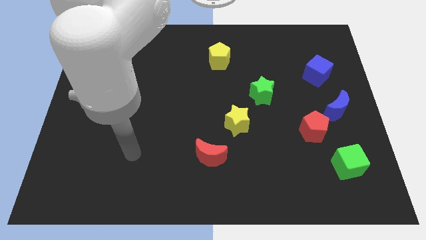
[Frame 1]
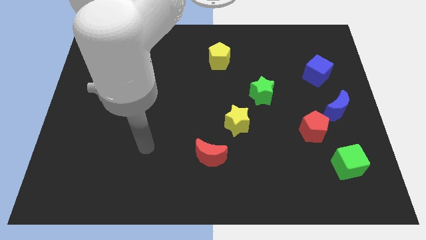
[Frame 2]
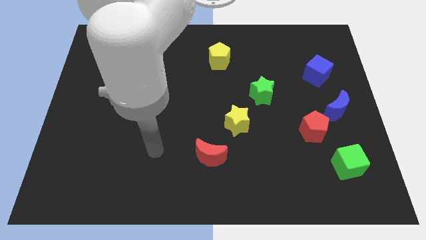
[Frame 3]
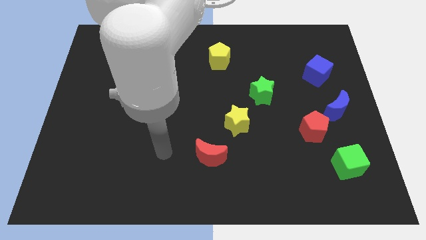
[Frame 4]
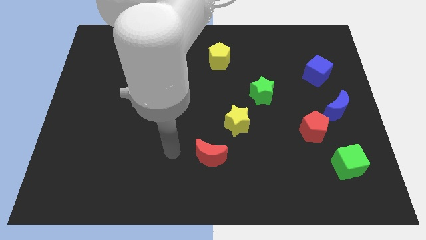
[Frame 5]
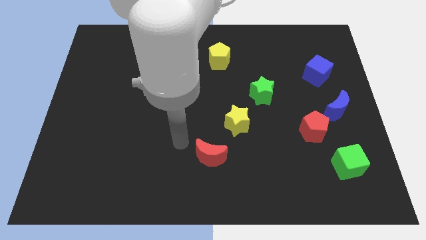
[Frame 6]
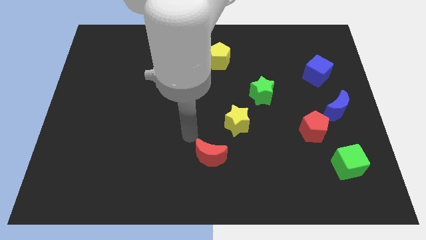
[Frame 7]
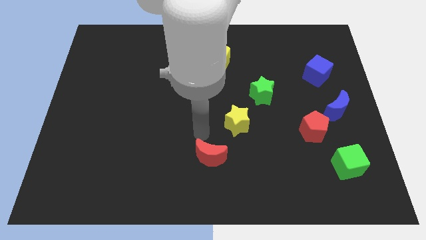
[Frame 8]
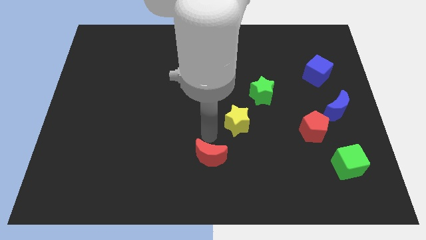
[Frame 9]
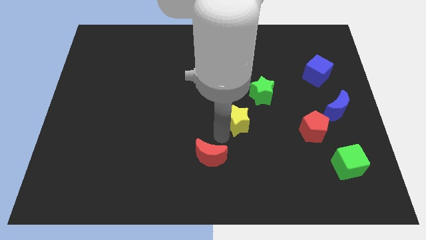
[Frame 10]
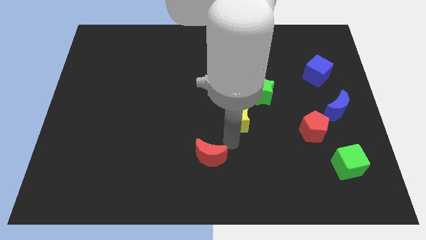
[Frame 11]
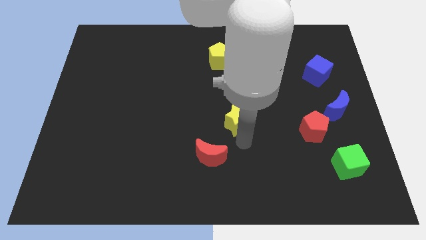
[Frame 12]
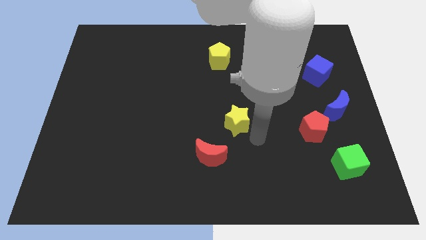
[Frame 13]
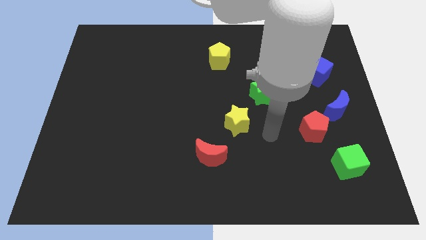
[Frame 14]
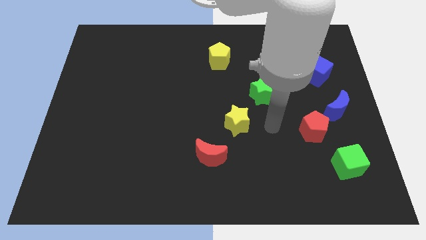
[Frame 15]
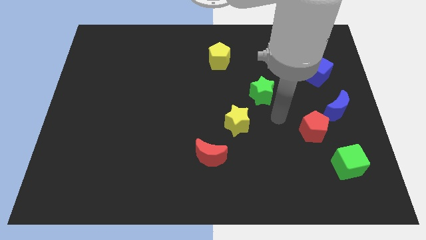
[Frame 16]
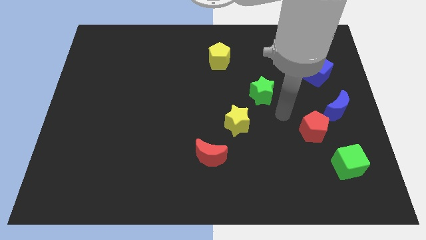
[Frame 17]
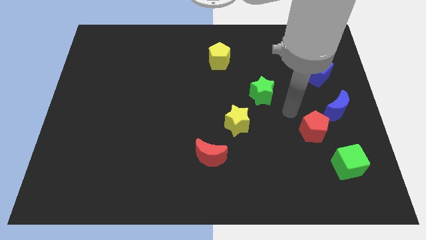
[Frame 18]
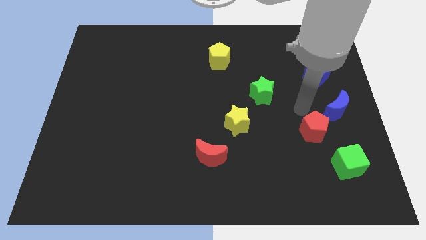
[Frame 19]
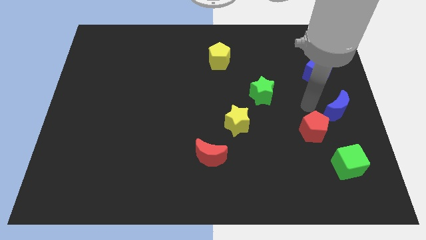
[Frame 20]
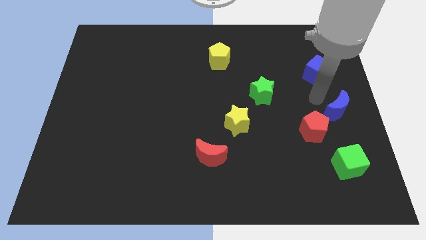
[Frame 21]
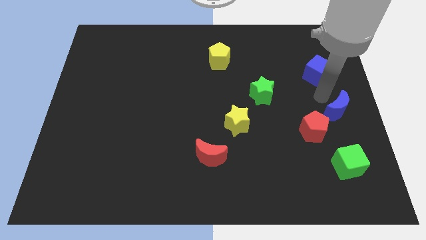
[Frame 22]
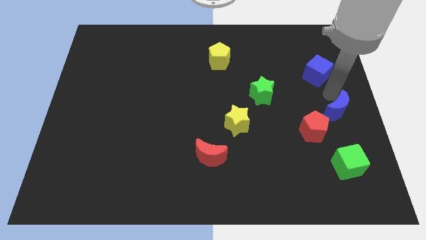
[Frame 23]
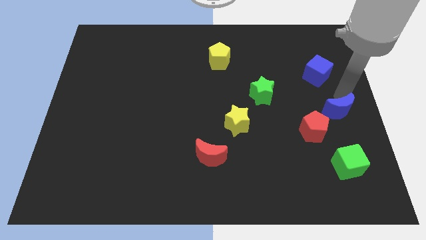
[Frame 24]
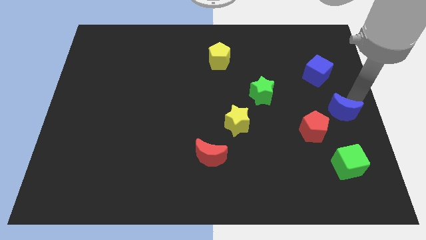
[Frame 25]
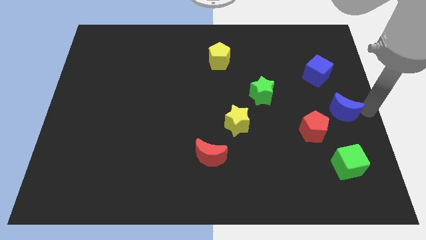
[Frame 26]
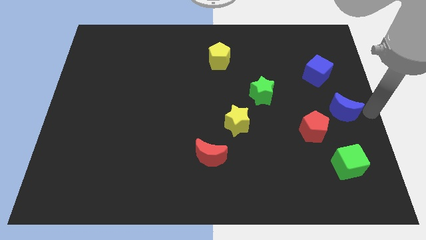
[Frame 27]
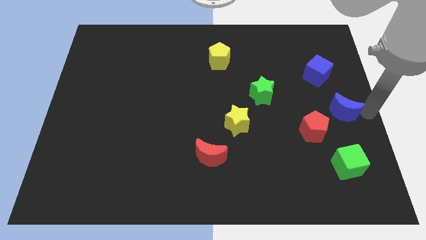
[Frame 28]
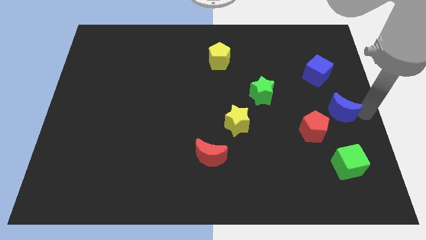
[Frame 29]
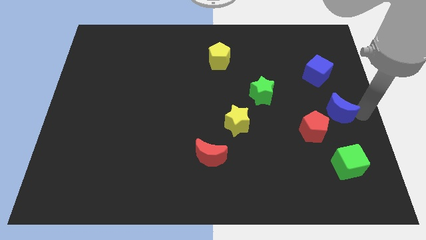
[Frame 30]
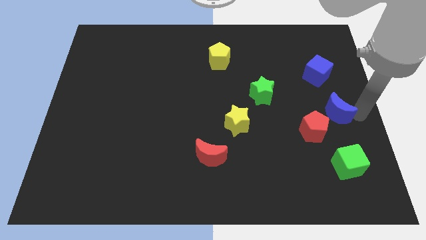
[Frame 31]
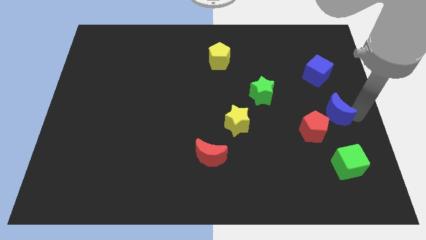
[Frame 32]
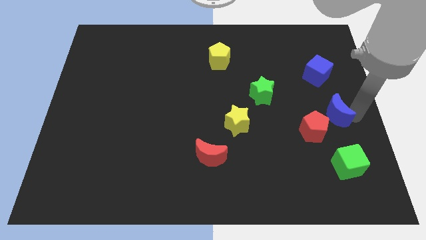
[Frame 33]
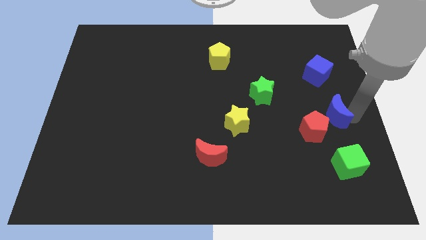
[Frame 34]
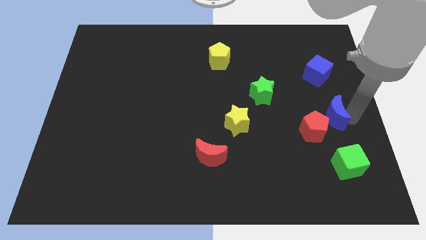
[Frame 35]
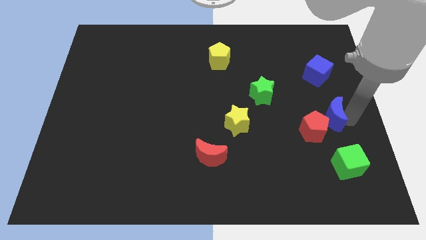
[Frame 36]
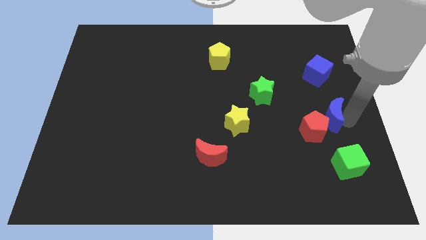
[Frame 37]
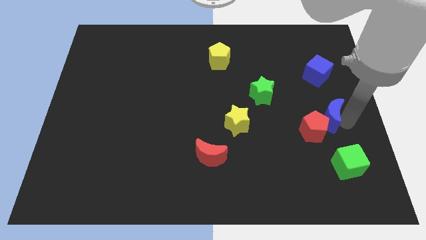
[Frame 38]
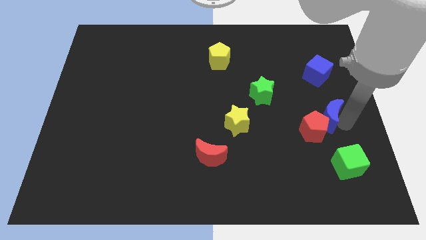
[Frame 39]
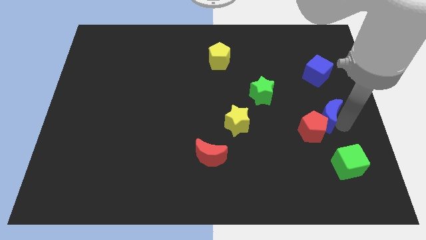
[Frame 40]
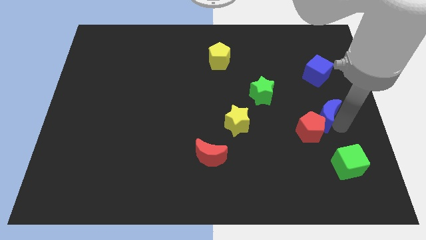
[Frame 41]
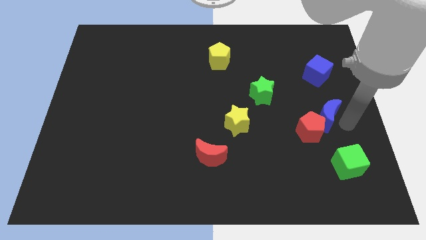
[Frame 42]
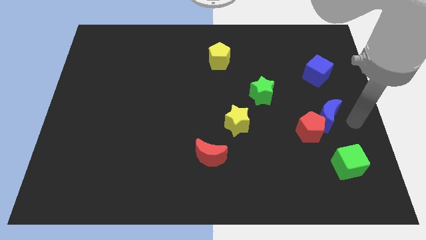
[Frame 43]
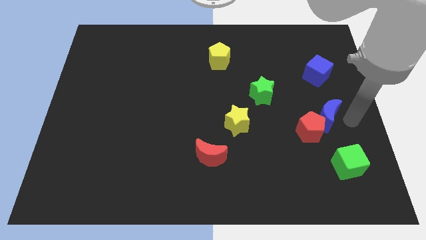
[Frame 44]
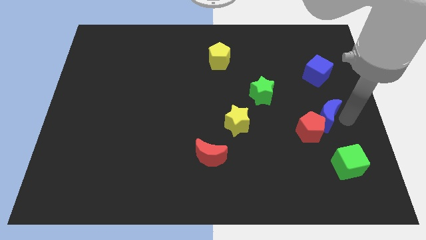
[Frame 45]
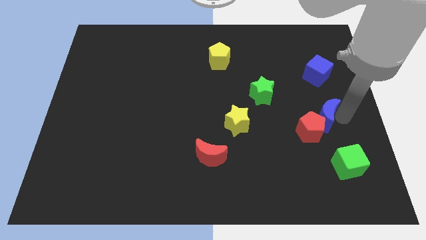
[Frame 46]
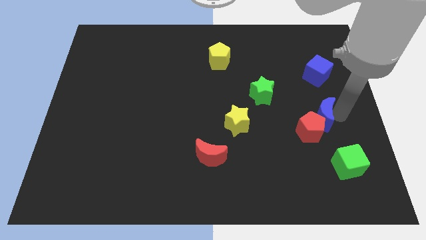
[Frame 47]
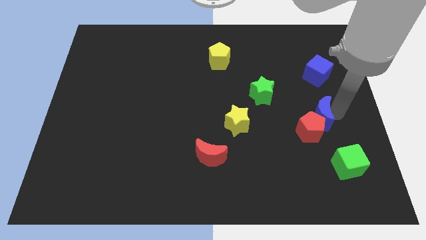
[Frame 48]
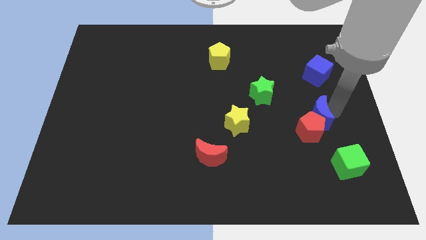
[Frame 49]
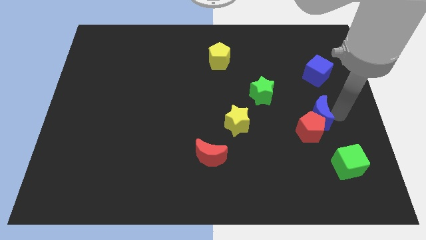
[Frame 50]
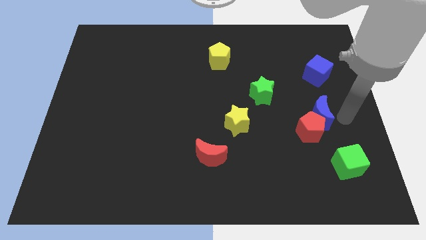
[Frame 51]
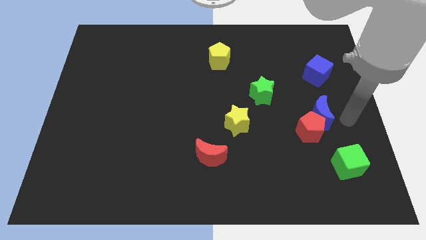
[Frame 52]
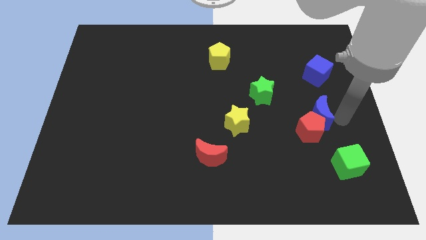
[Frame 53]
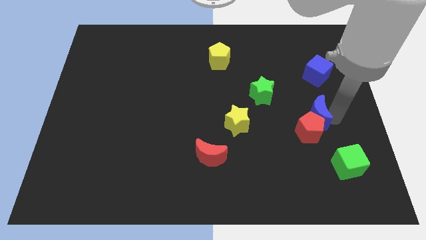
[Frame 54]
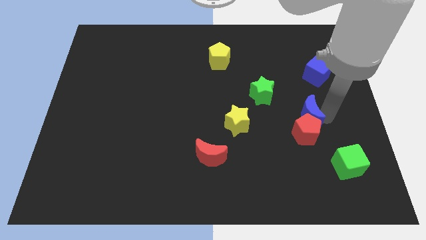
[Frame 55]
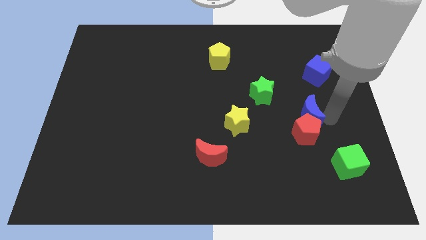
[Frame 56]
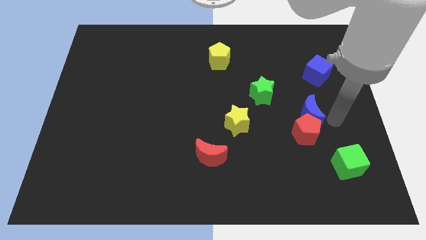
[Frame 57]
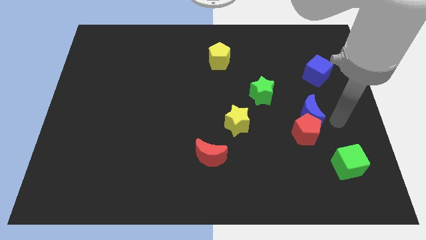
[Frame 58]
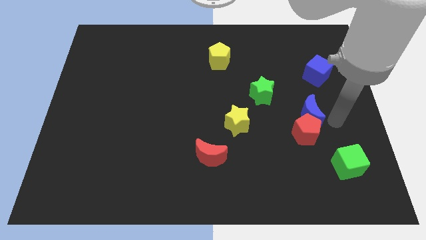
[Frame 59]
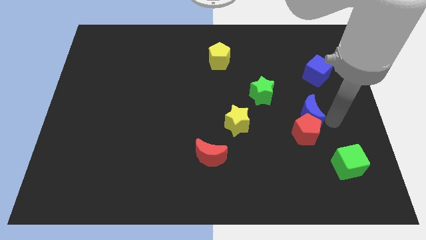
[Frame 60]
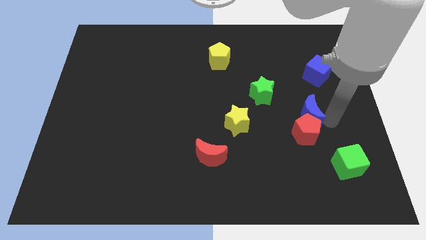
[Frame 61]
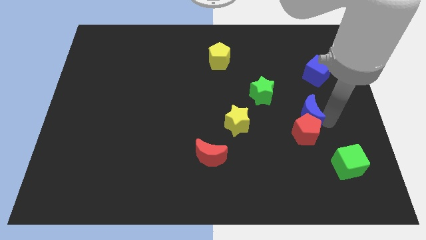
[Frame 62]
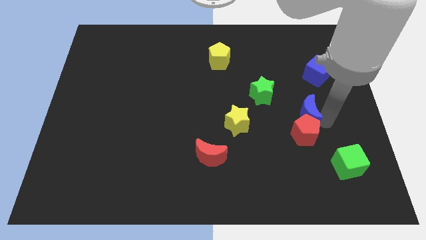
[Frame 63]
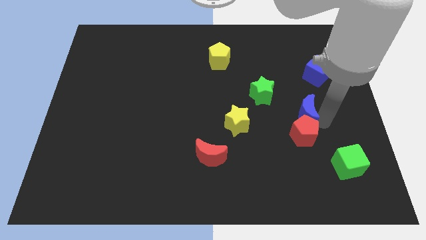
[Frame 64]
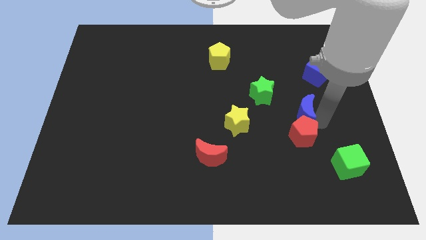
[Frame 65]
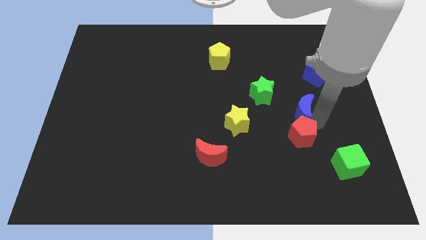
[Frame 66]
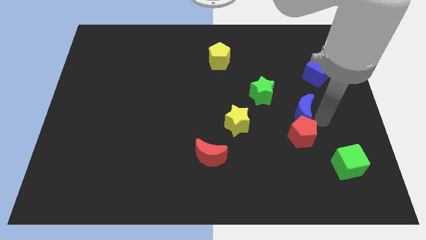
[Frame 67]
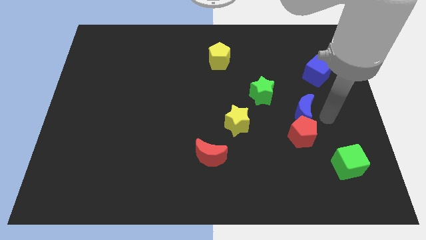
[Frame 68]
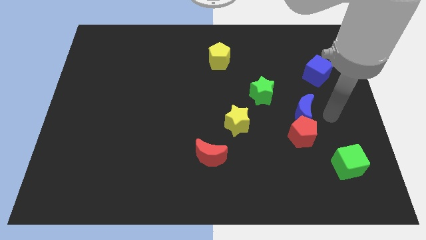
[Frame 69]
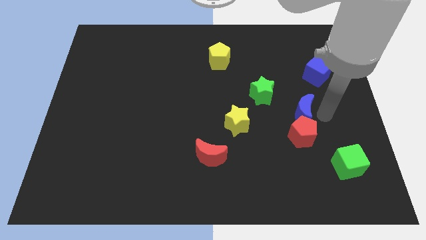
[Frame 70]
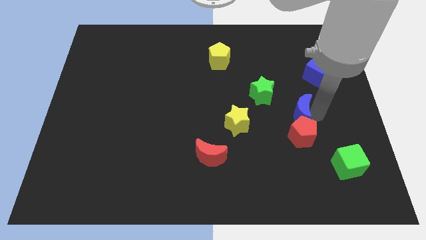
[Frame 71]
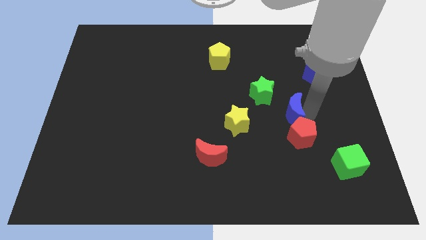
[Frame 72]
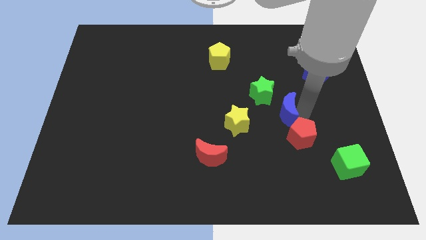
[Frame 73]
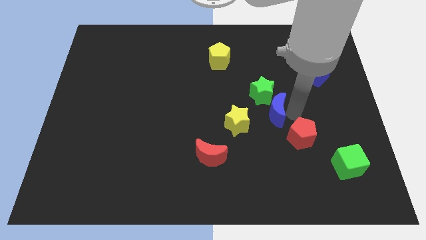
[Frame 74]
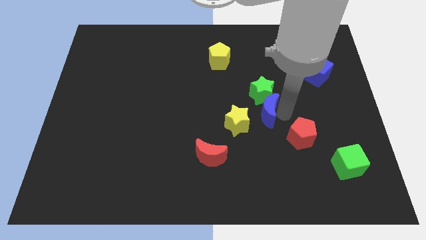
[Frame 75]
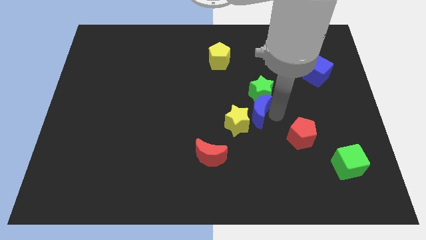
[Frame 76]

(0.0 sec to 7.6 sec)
put the blue moon to the middle
